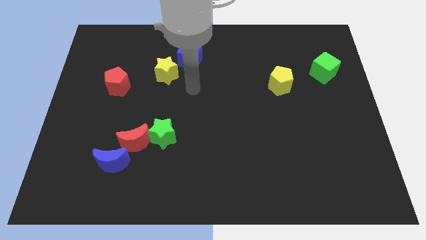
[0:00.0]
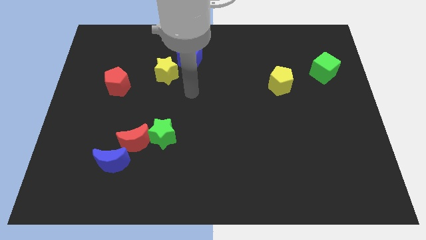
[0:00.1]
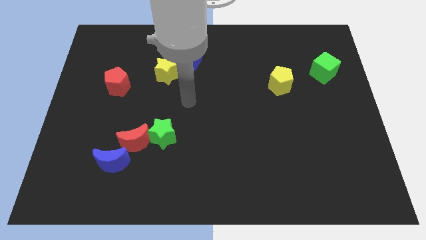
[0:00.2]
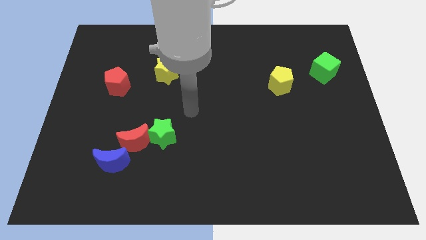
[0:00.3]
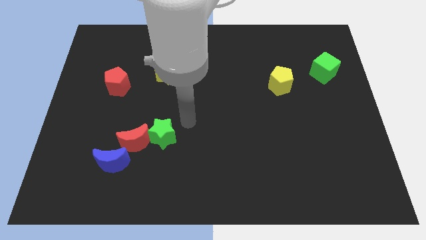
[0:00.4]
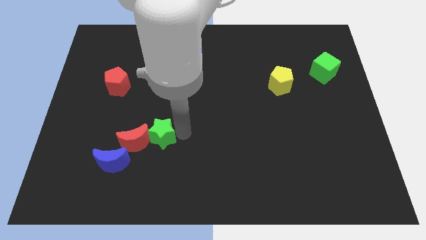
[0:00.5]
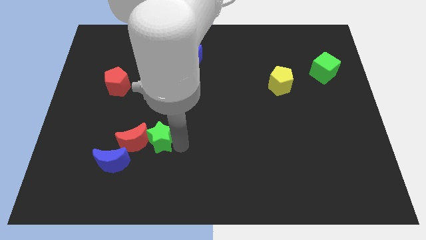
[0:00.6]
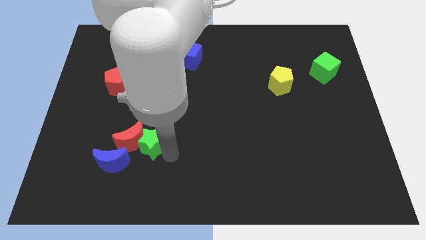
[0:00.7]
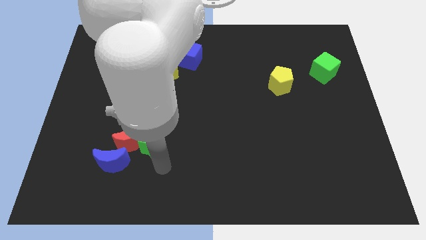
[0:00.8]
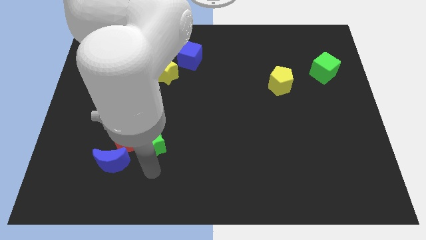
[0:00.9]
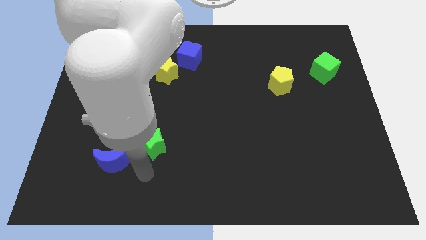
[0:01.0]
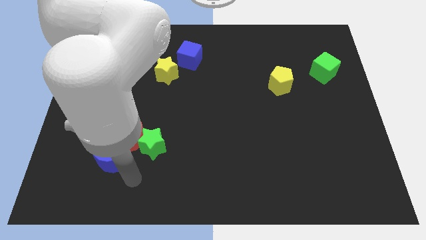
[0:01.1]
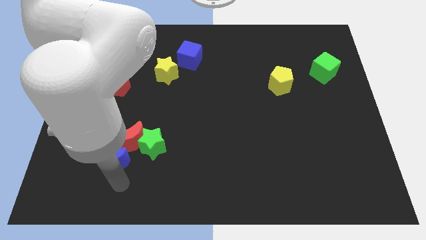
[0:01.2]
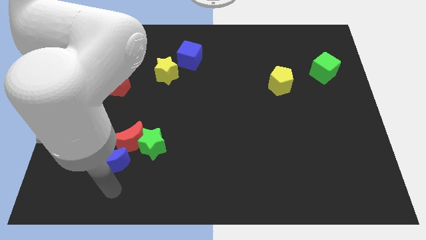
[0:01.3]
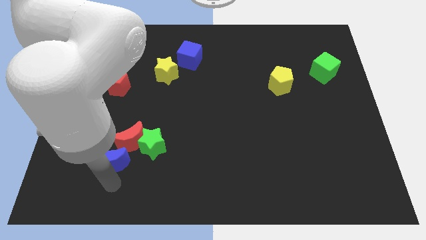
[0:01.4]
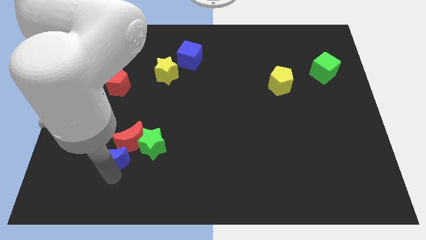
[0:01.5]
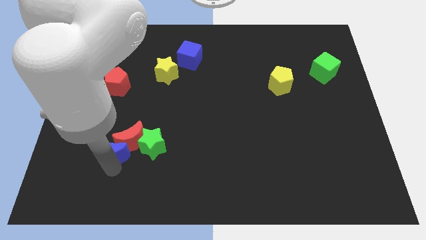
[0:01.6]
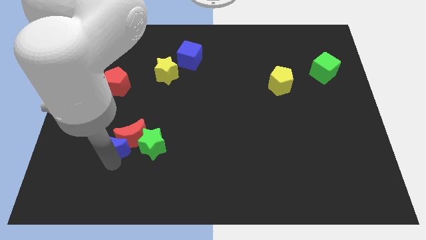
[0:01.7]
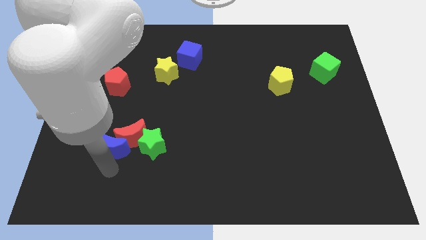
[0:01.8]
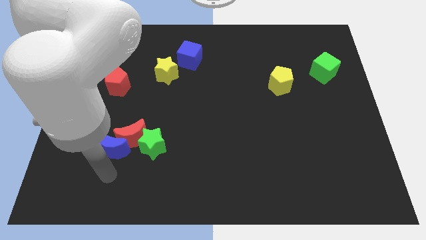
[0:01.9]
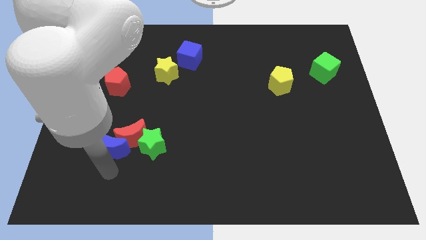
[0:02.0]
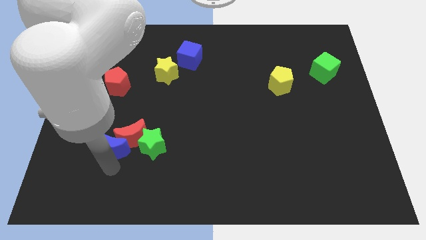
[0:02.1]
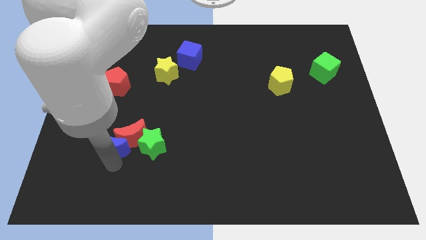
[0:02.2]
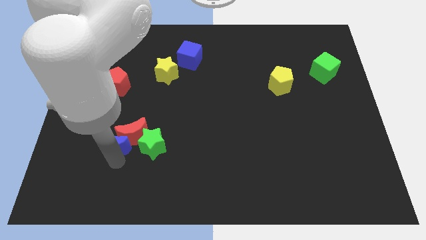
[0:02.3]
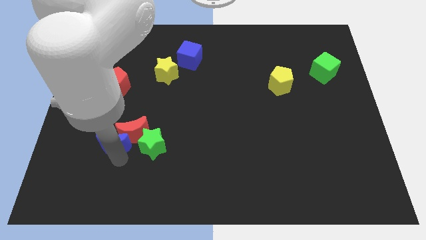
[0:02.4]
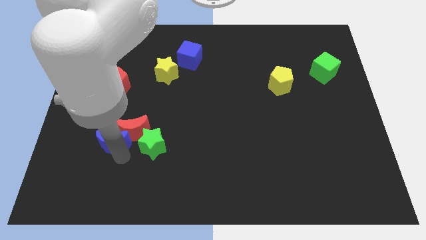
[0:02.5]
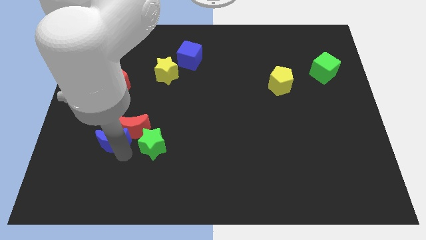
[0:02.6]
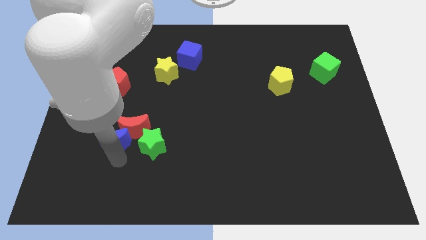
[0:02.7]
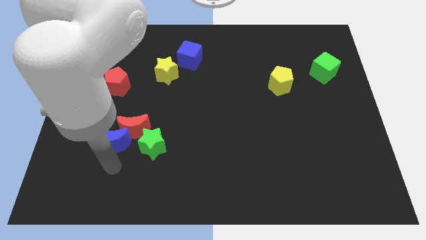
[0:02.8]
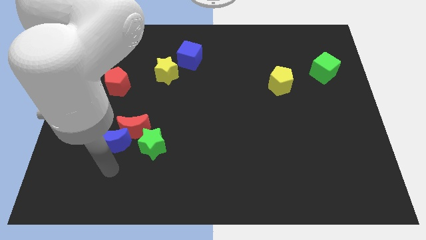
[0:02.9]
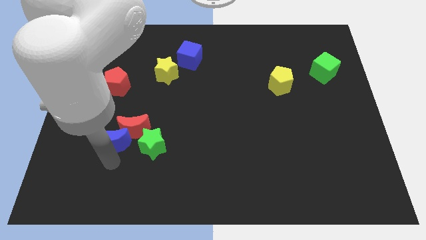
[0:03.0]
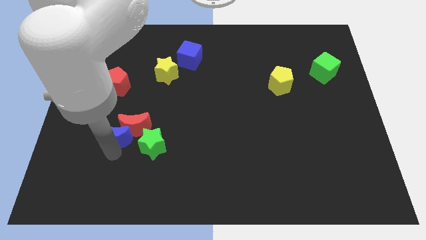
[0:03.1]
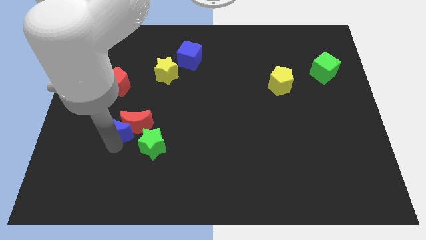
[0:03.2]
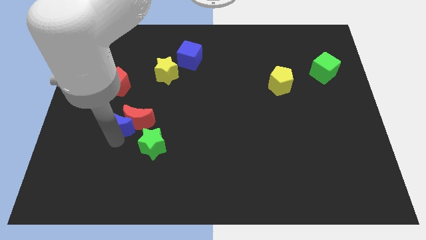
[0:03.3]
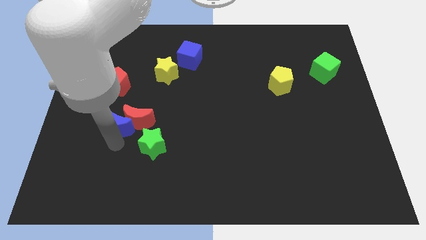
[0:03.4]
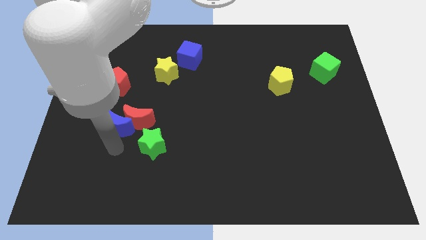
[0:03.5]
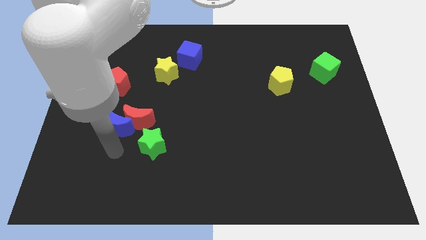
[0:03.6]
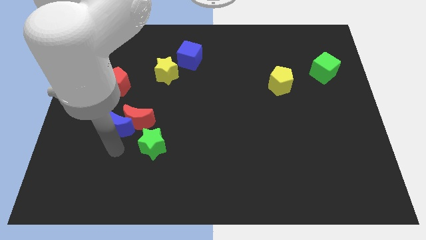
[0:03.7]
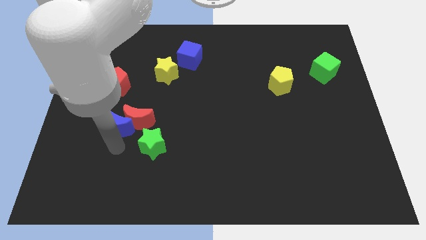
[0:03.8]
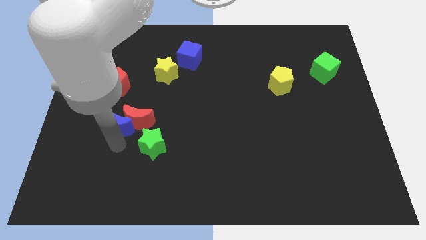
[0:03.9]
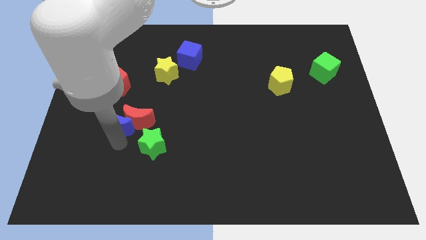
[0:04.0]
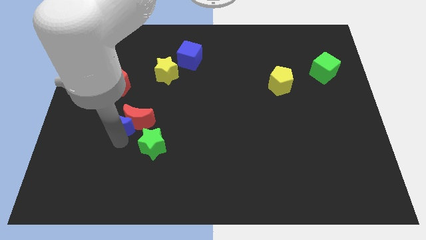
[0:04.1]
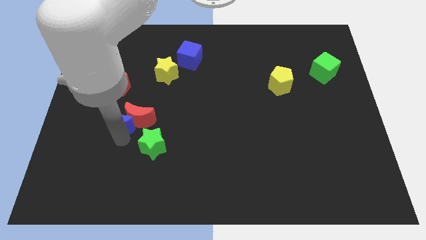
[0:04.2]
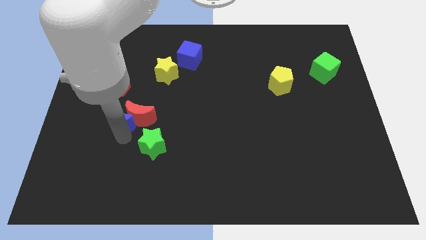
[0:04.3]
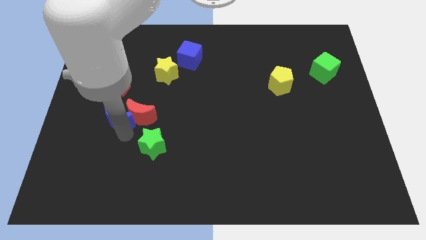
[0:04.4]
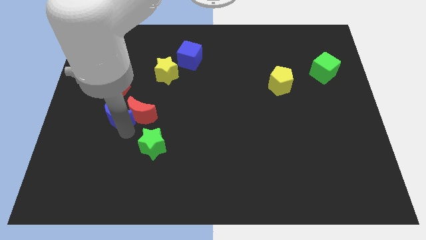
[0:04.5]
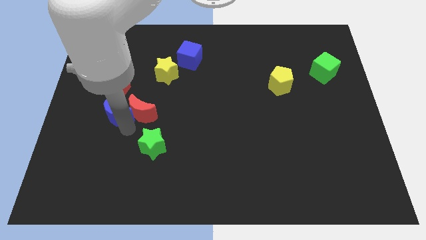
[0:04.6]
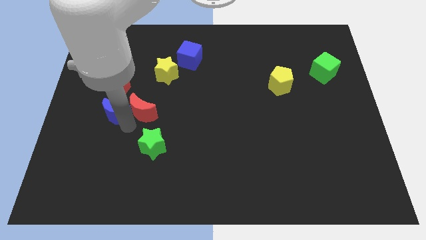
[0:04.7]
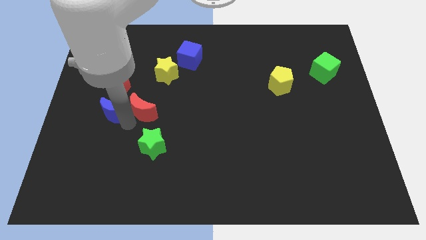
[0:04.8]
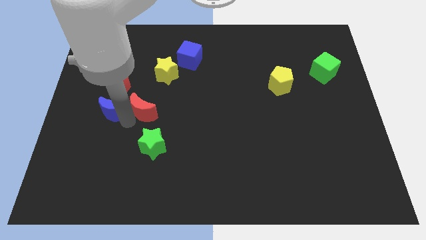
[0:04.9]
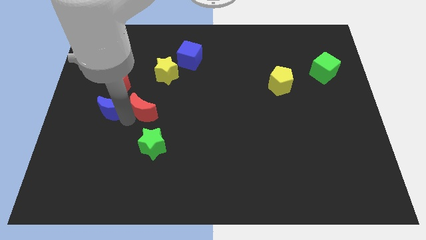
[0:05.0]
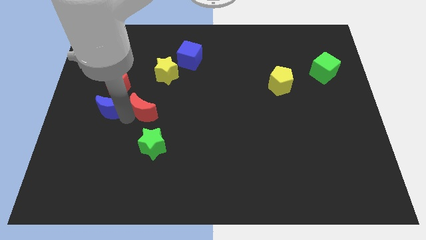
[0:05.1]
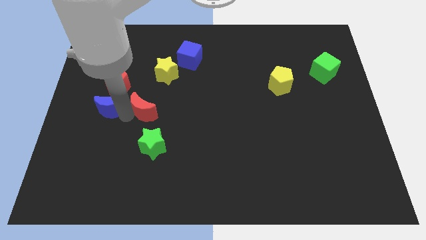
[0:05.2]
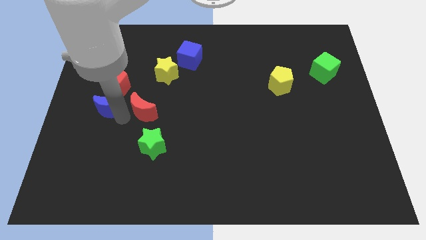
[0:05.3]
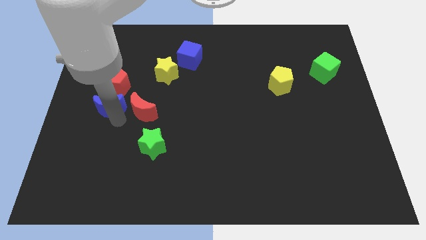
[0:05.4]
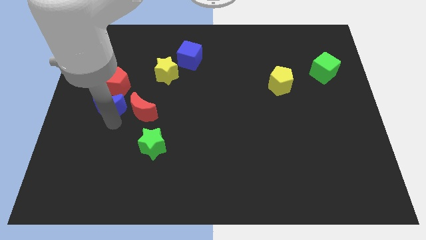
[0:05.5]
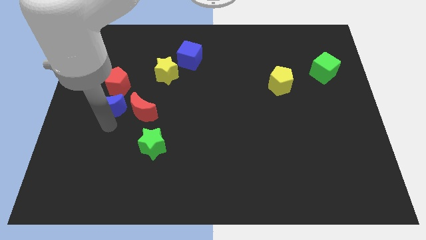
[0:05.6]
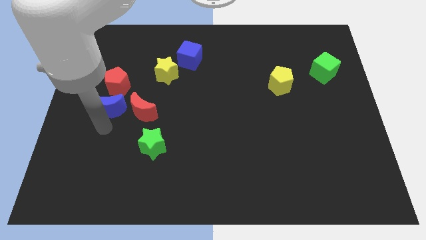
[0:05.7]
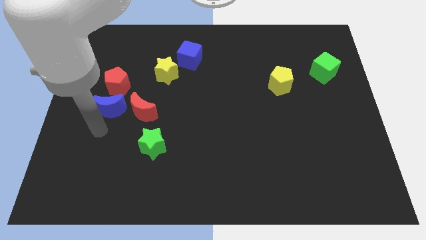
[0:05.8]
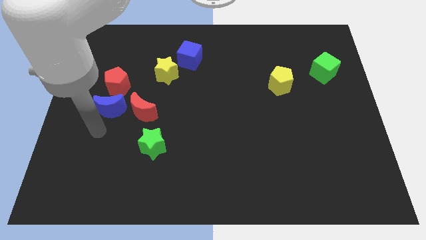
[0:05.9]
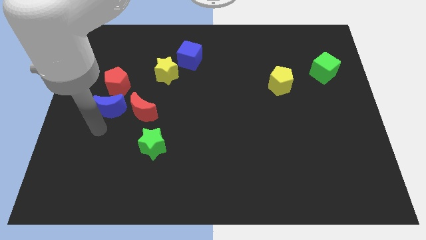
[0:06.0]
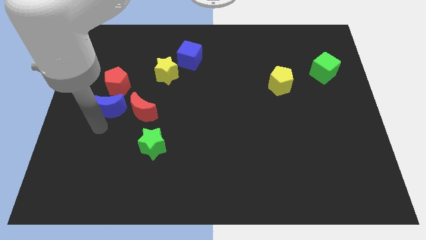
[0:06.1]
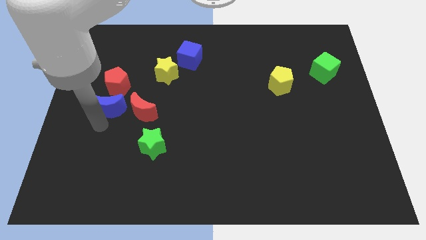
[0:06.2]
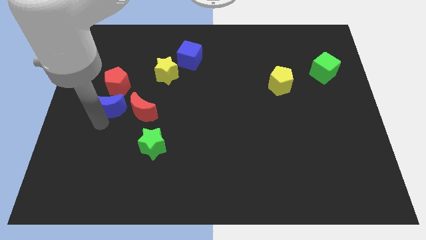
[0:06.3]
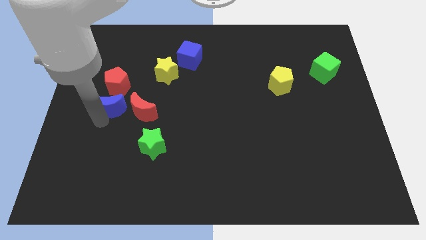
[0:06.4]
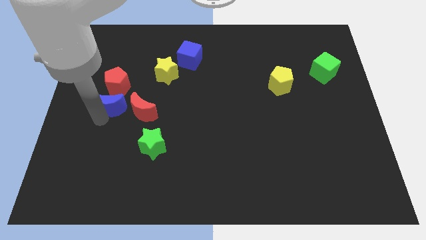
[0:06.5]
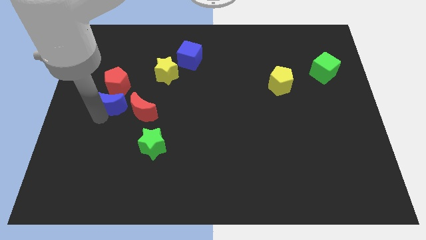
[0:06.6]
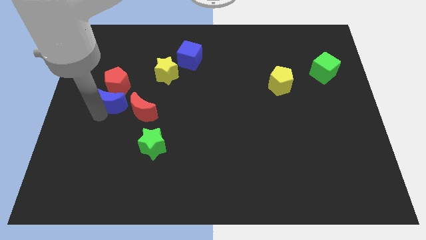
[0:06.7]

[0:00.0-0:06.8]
push the blue moon next to the red pentagon
